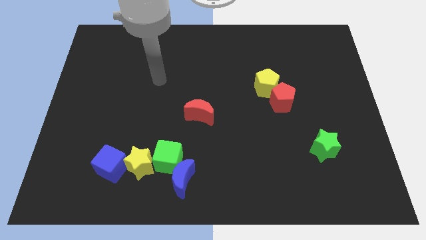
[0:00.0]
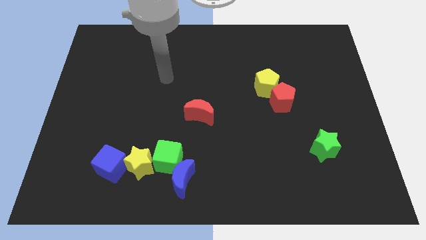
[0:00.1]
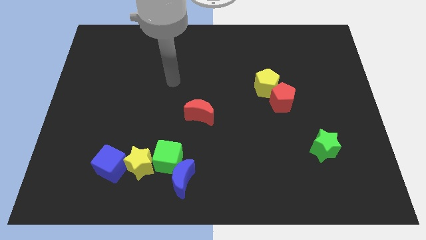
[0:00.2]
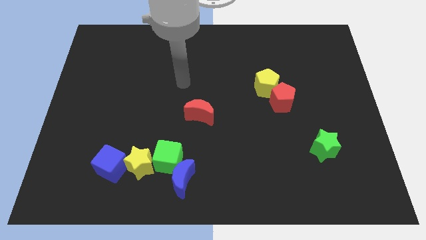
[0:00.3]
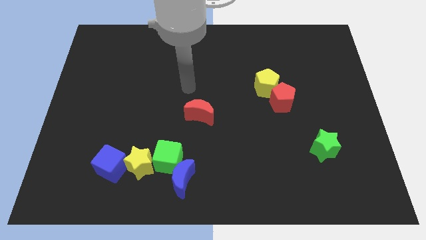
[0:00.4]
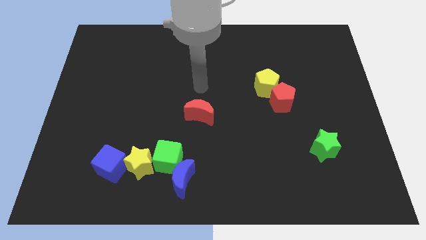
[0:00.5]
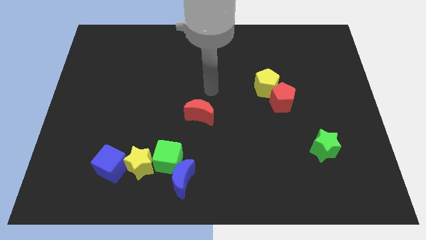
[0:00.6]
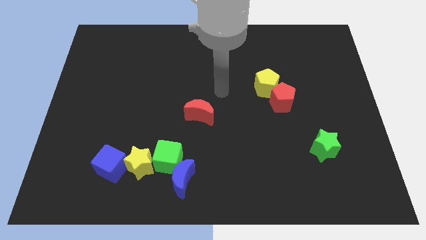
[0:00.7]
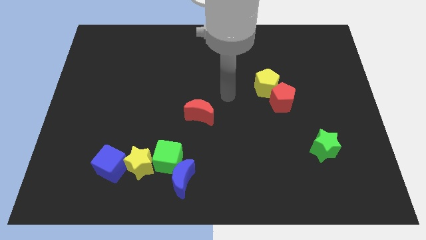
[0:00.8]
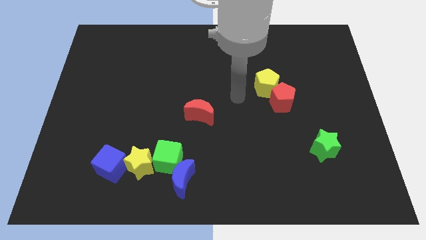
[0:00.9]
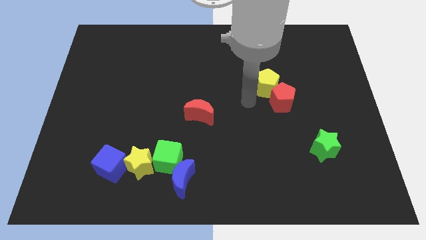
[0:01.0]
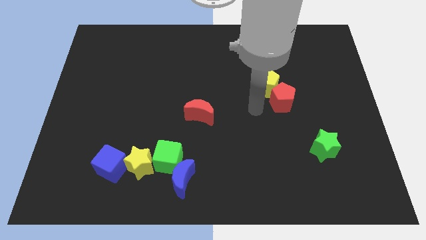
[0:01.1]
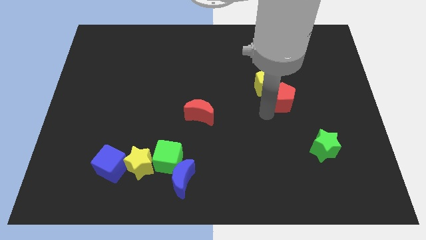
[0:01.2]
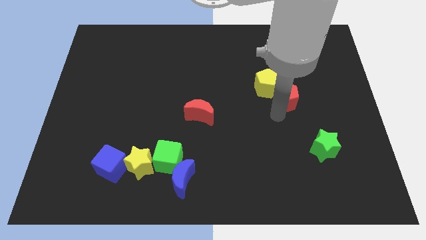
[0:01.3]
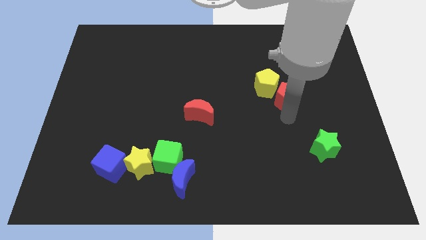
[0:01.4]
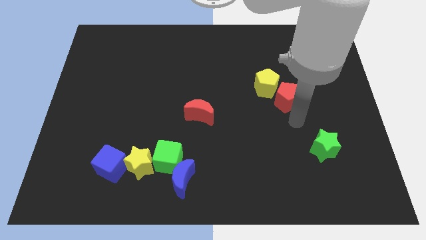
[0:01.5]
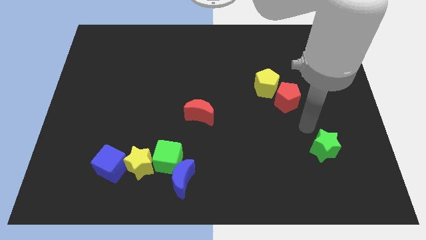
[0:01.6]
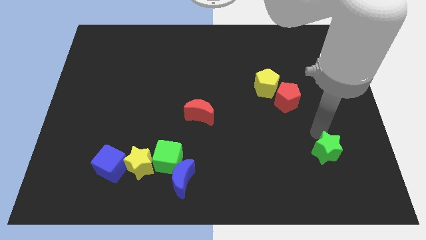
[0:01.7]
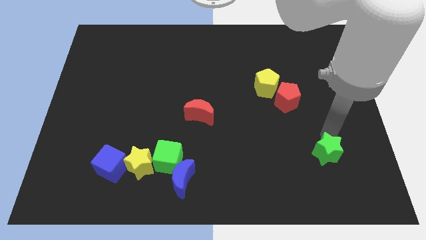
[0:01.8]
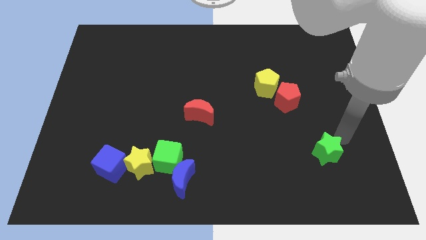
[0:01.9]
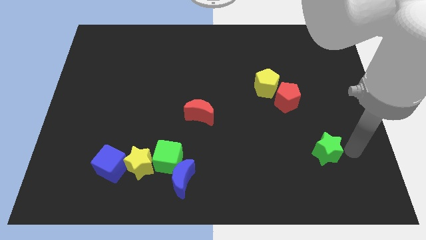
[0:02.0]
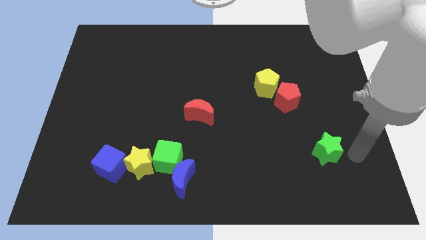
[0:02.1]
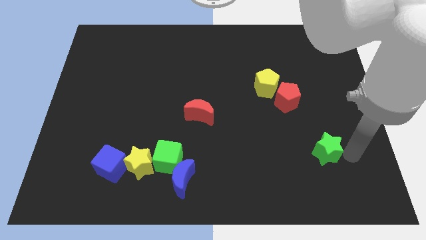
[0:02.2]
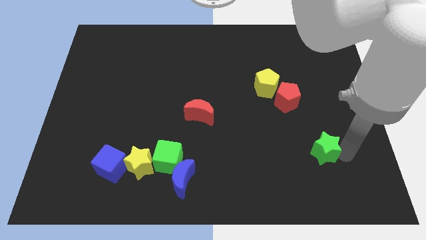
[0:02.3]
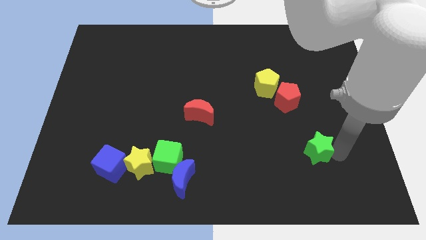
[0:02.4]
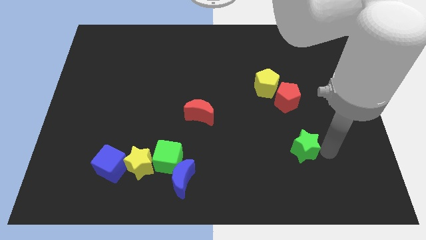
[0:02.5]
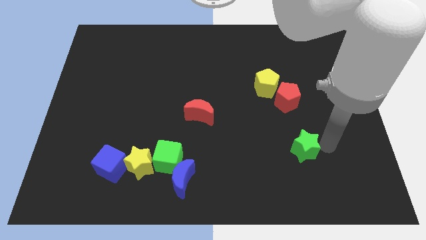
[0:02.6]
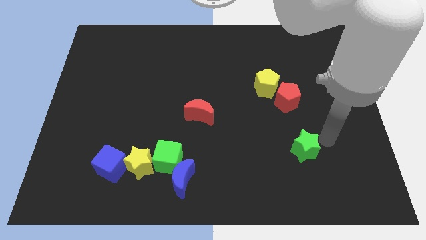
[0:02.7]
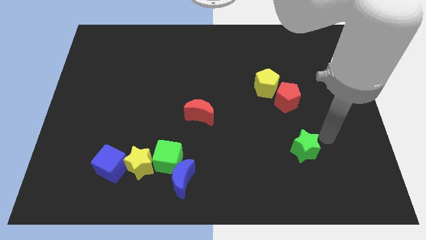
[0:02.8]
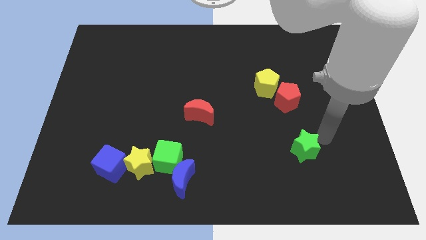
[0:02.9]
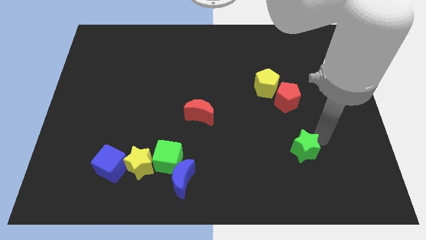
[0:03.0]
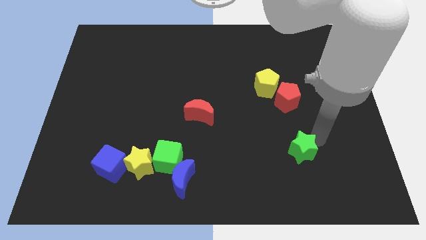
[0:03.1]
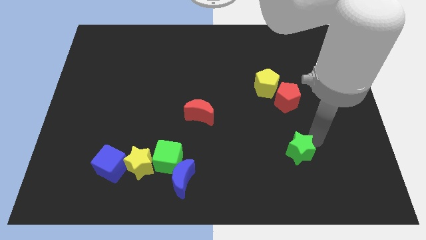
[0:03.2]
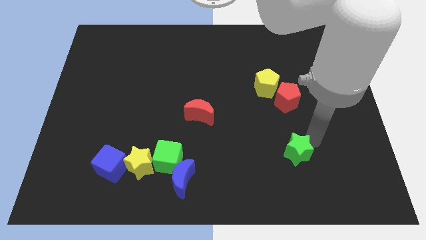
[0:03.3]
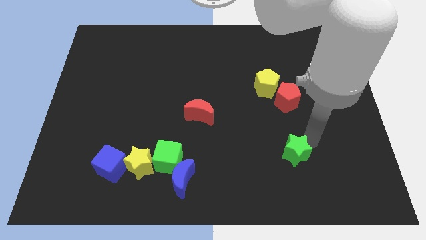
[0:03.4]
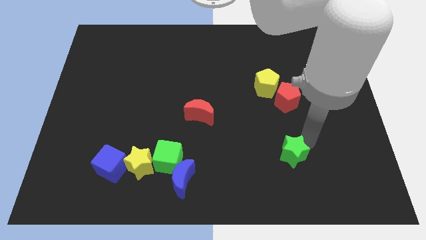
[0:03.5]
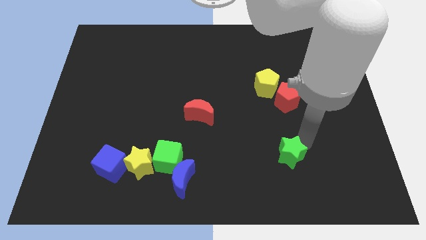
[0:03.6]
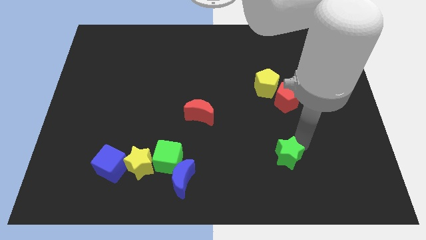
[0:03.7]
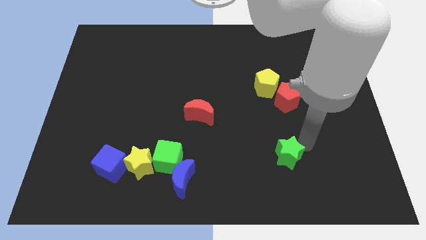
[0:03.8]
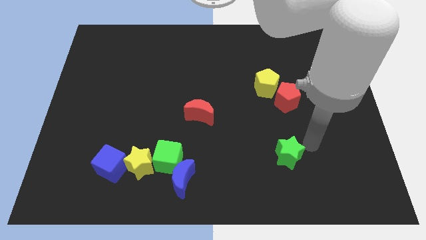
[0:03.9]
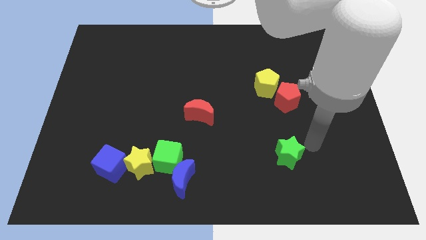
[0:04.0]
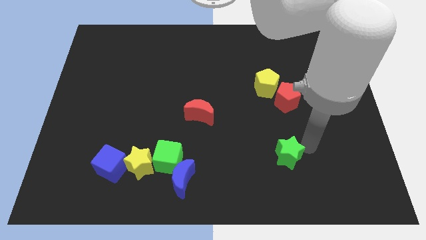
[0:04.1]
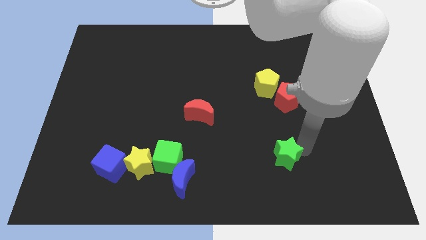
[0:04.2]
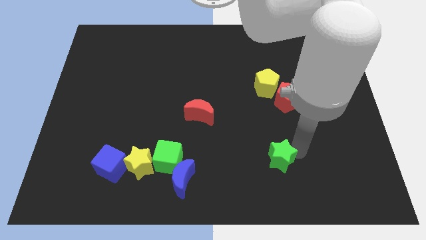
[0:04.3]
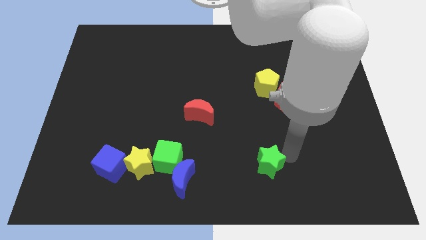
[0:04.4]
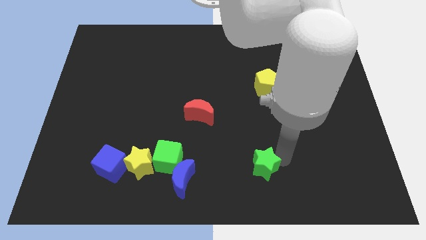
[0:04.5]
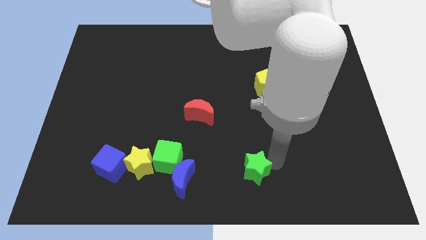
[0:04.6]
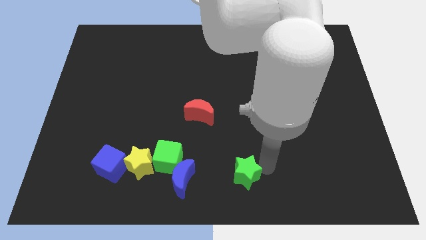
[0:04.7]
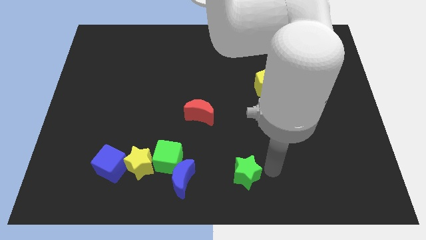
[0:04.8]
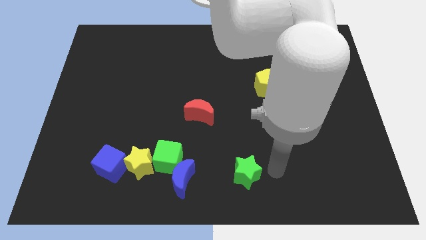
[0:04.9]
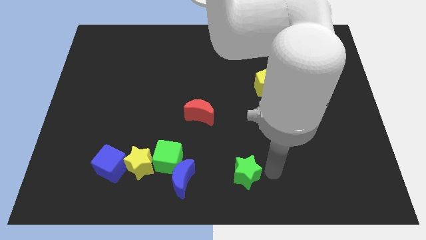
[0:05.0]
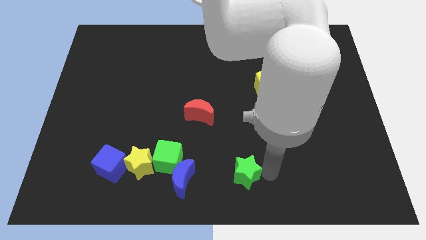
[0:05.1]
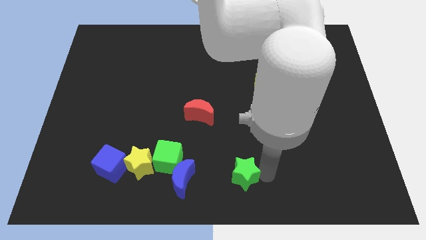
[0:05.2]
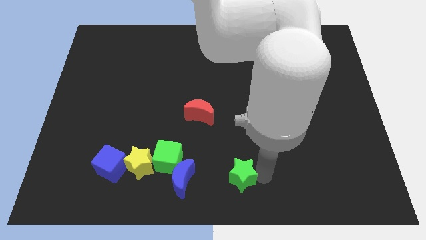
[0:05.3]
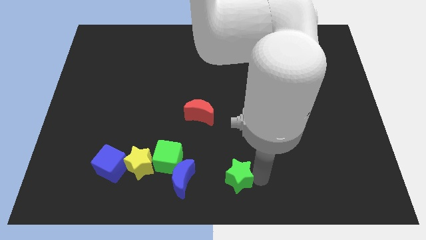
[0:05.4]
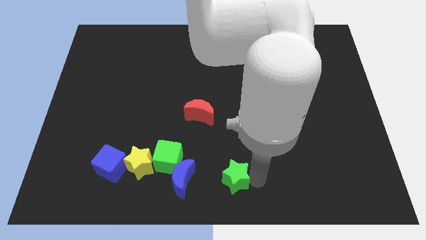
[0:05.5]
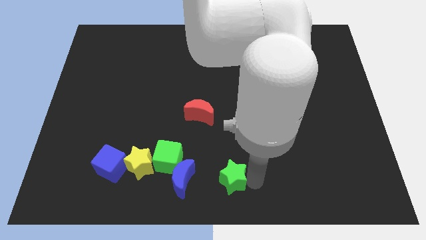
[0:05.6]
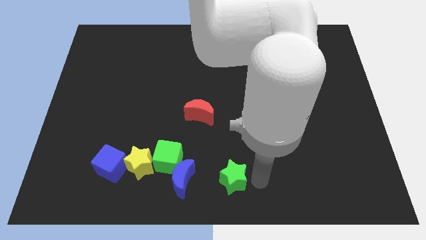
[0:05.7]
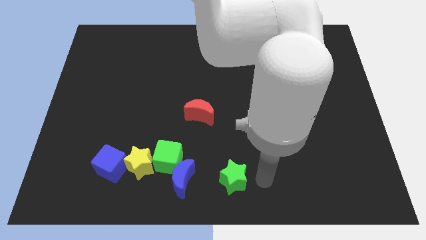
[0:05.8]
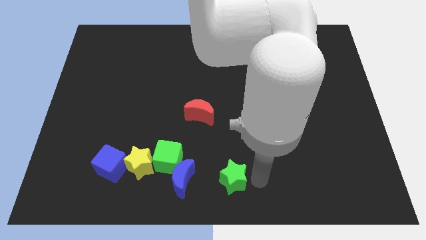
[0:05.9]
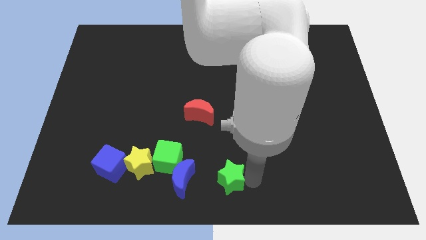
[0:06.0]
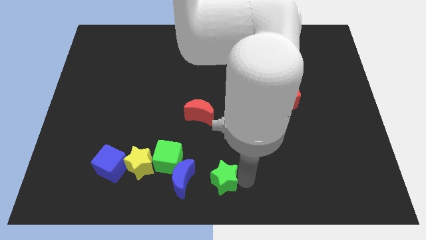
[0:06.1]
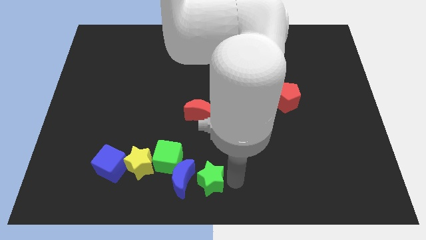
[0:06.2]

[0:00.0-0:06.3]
move the green star next to the blue moon

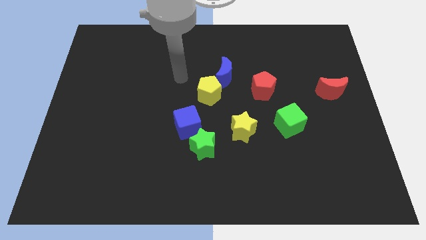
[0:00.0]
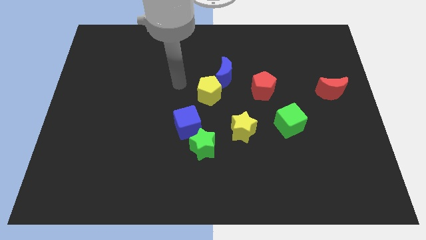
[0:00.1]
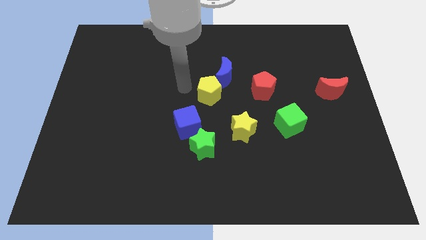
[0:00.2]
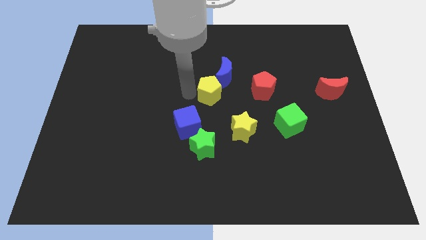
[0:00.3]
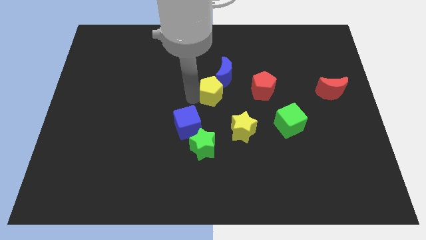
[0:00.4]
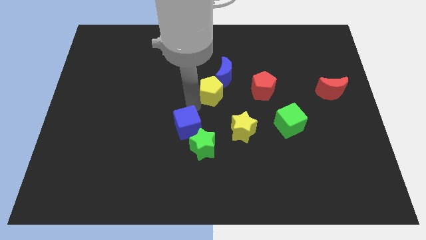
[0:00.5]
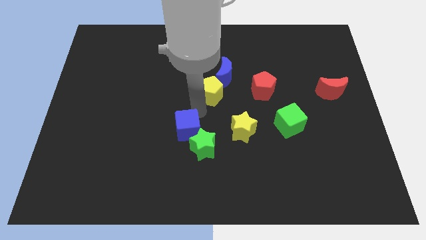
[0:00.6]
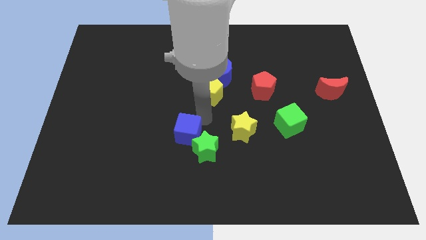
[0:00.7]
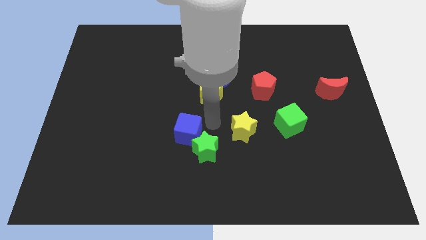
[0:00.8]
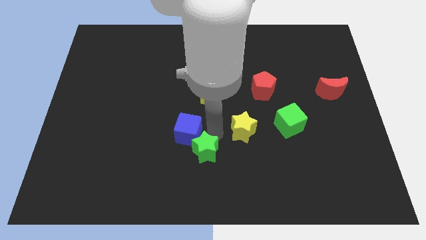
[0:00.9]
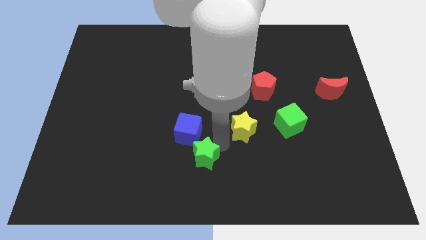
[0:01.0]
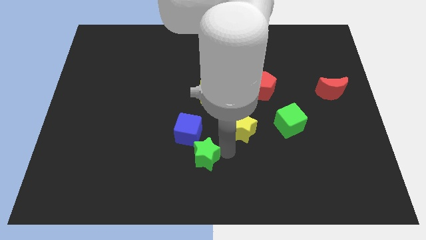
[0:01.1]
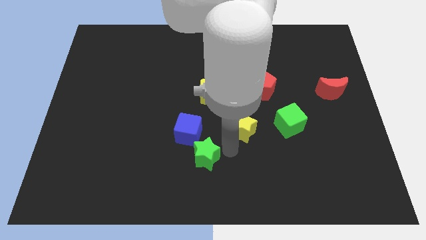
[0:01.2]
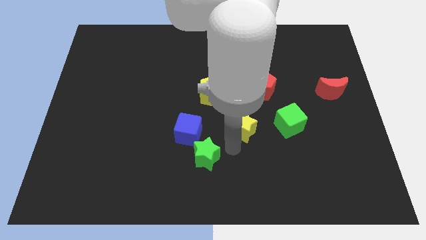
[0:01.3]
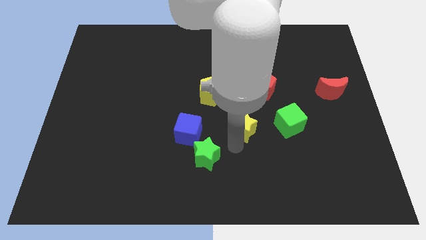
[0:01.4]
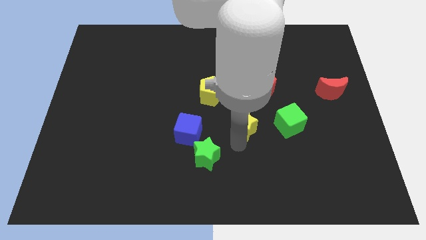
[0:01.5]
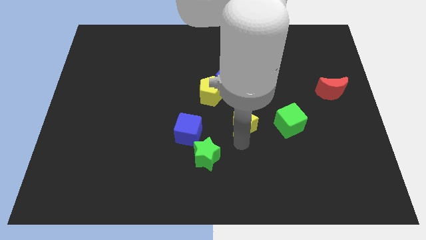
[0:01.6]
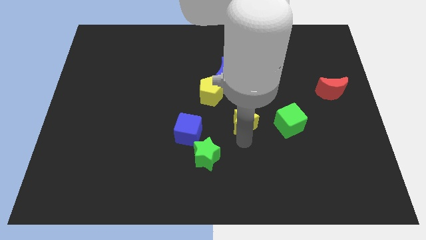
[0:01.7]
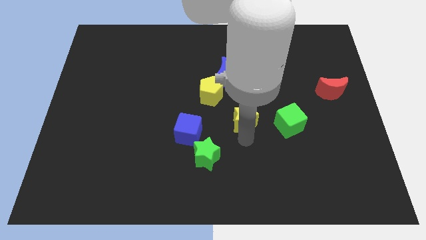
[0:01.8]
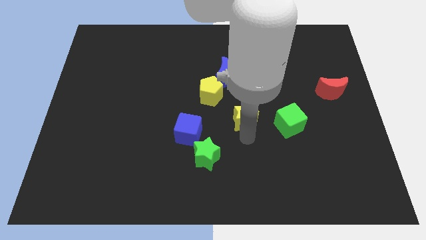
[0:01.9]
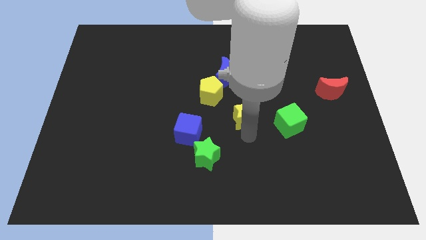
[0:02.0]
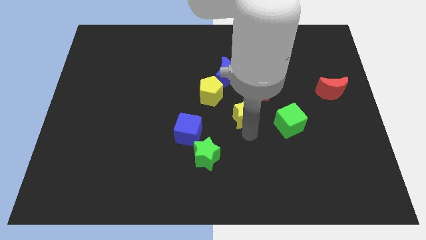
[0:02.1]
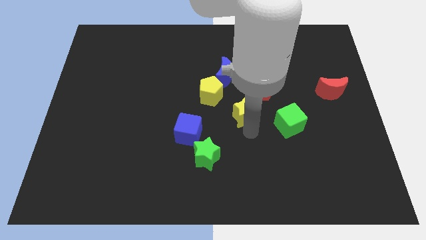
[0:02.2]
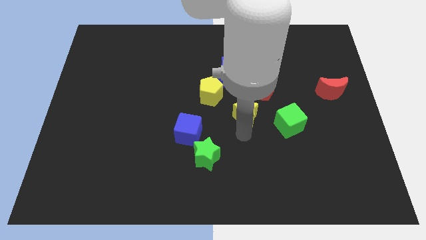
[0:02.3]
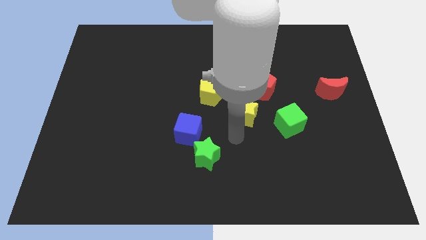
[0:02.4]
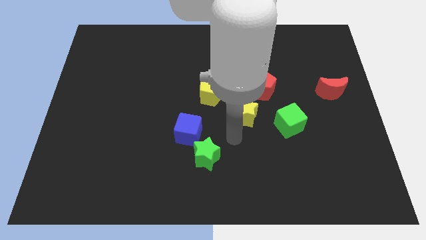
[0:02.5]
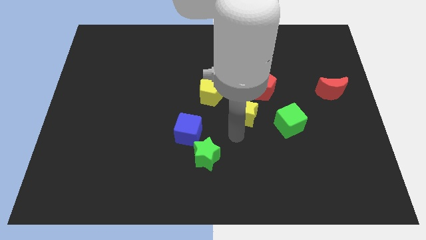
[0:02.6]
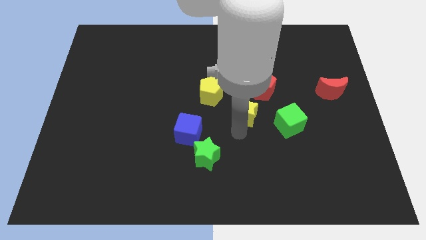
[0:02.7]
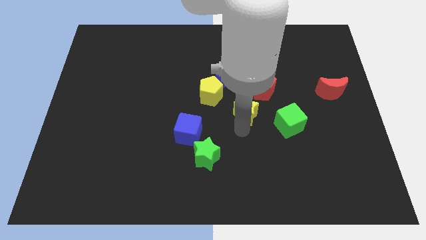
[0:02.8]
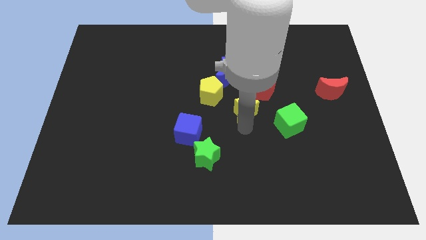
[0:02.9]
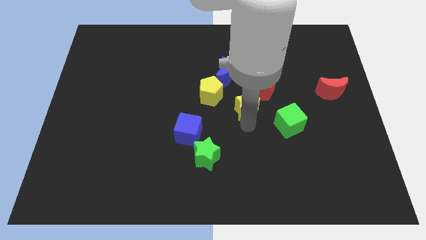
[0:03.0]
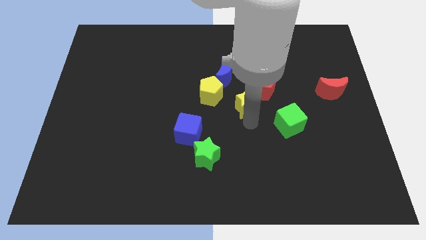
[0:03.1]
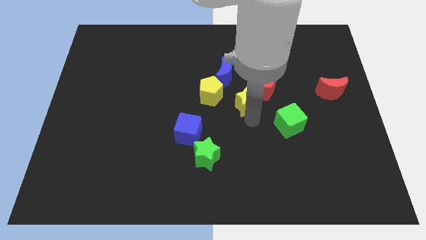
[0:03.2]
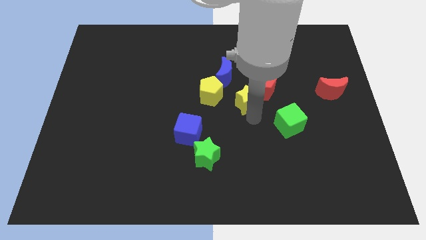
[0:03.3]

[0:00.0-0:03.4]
move the yellow star towards the red pentagon
